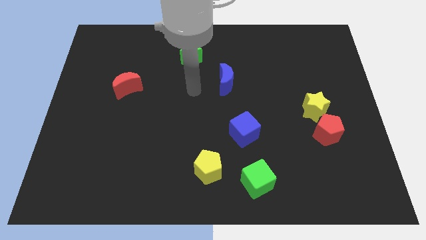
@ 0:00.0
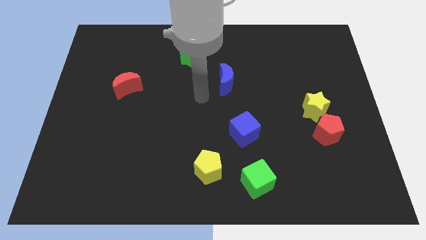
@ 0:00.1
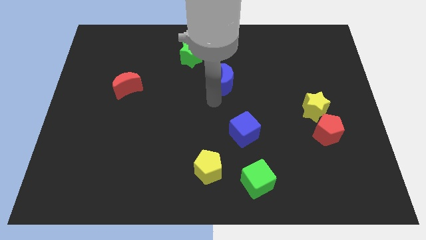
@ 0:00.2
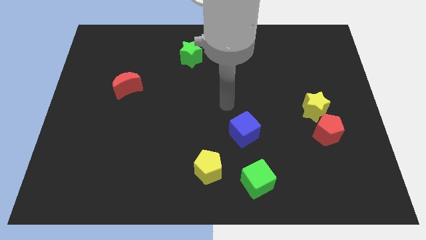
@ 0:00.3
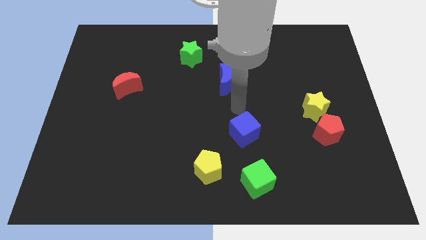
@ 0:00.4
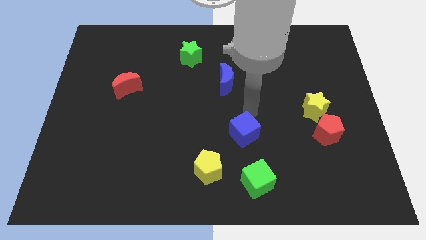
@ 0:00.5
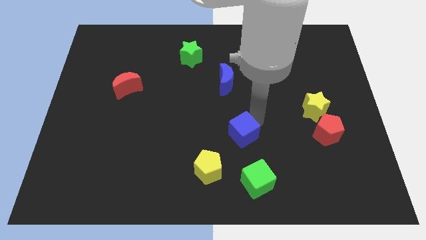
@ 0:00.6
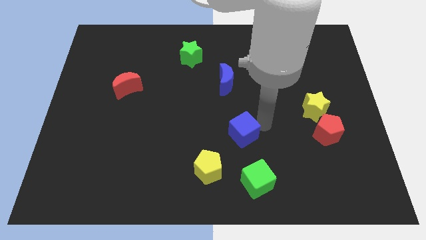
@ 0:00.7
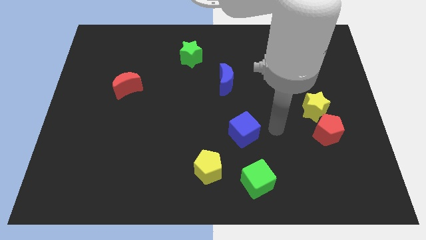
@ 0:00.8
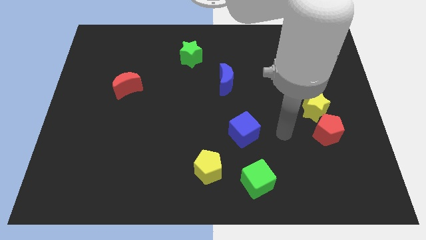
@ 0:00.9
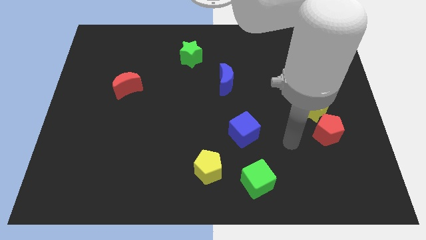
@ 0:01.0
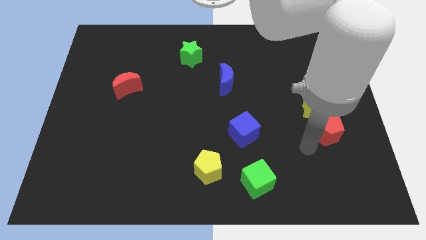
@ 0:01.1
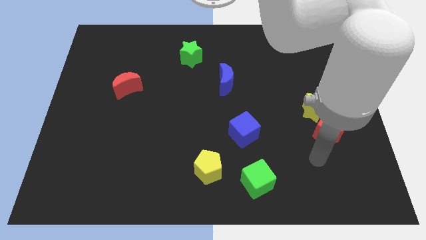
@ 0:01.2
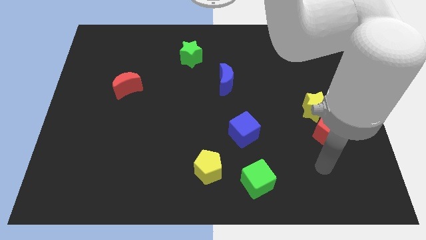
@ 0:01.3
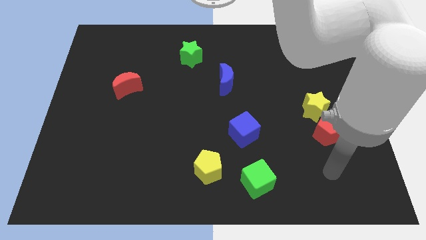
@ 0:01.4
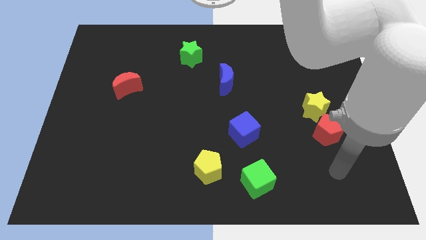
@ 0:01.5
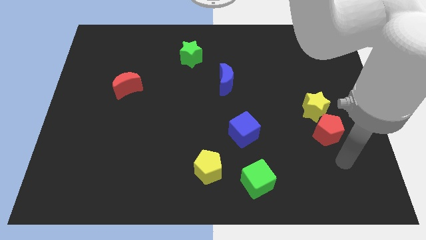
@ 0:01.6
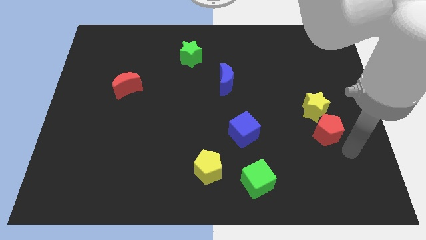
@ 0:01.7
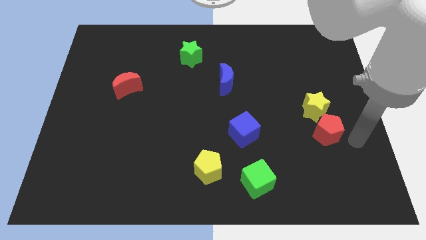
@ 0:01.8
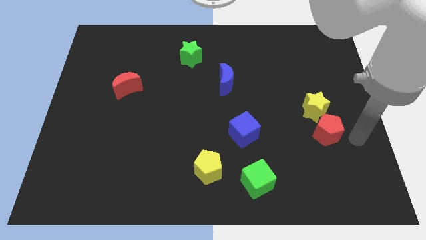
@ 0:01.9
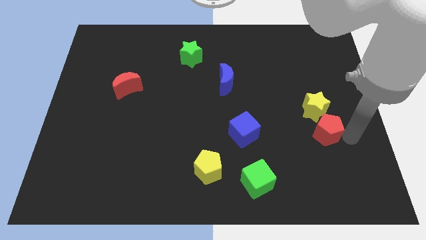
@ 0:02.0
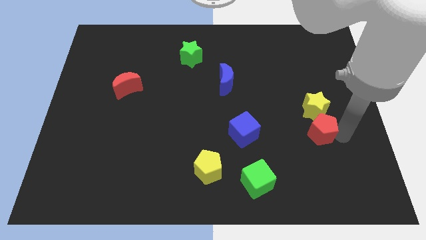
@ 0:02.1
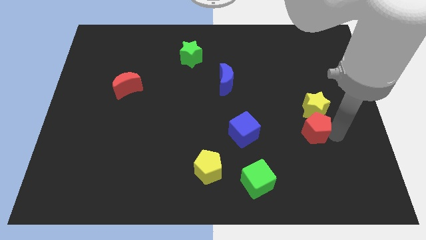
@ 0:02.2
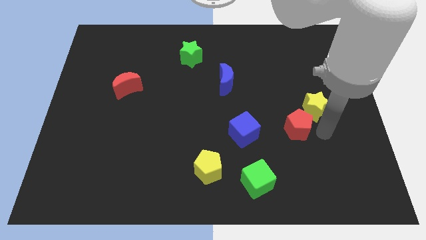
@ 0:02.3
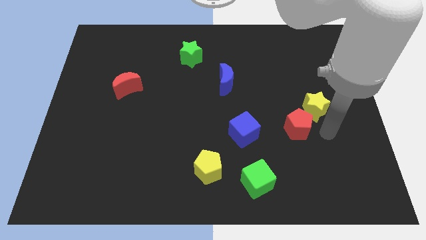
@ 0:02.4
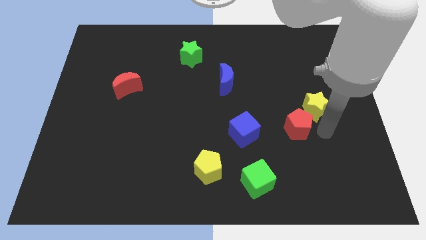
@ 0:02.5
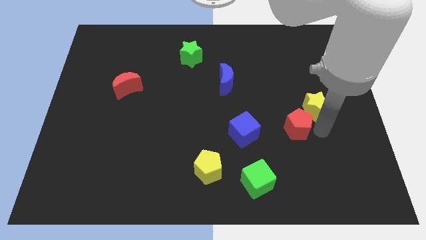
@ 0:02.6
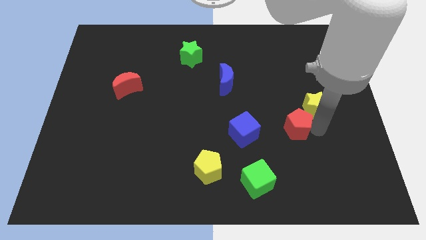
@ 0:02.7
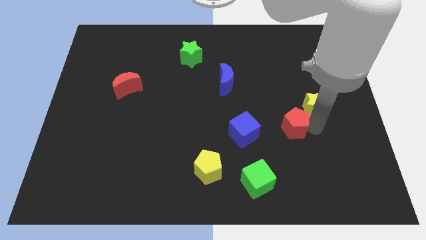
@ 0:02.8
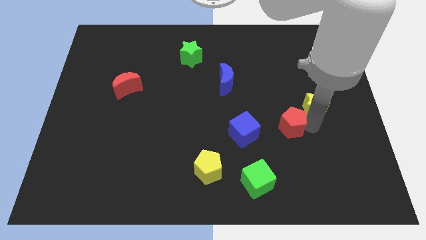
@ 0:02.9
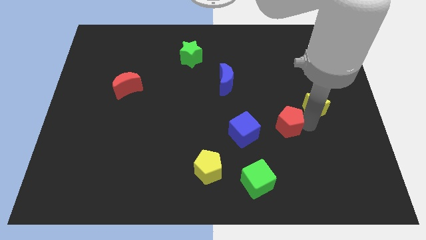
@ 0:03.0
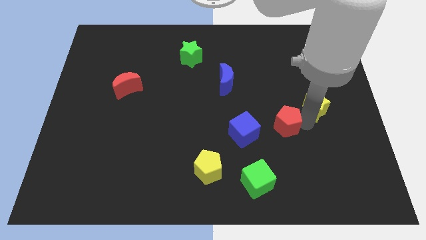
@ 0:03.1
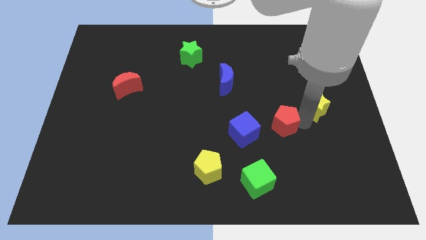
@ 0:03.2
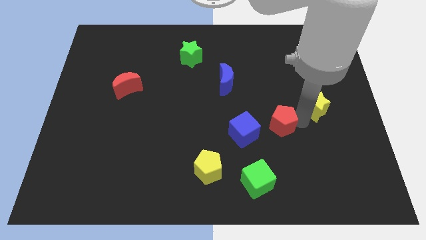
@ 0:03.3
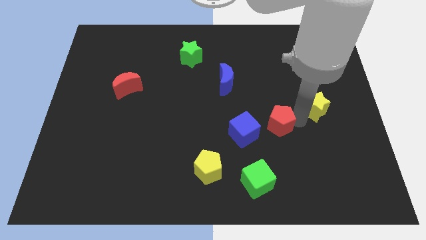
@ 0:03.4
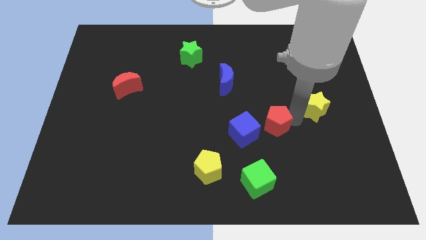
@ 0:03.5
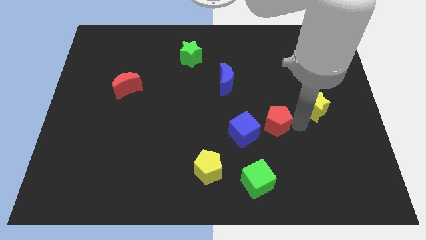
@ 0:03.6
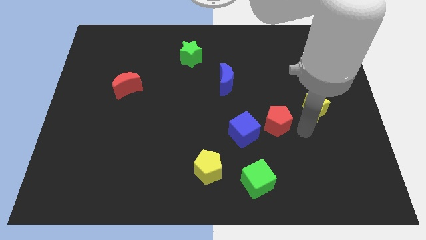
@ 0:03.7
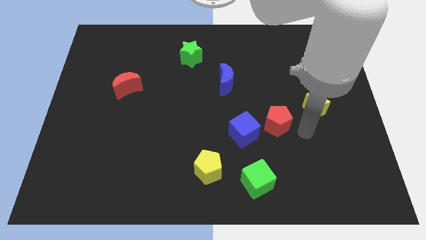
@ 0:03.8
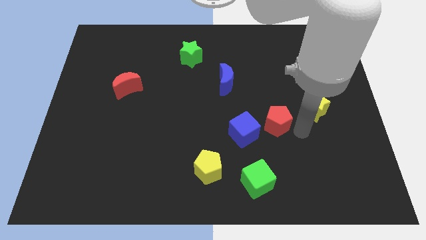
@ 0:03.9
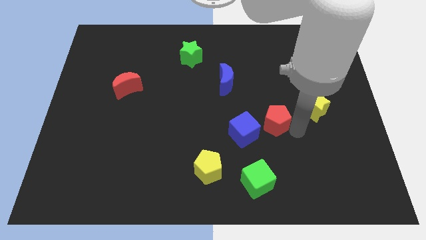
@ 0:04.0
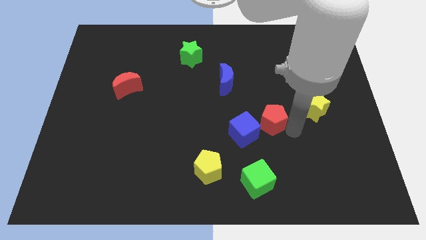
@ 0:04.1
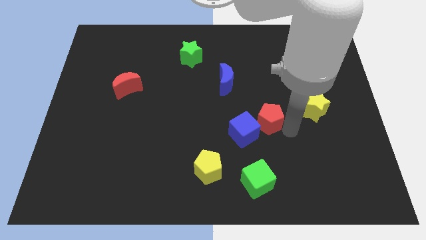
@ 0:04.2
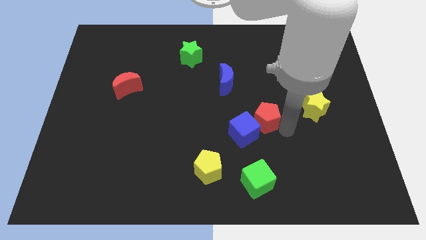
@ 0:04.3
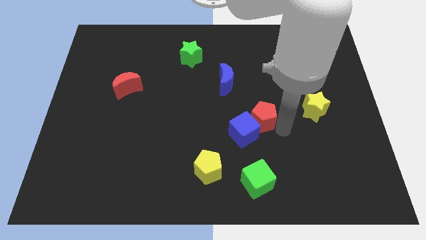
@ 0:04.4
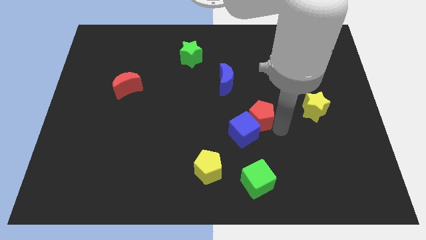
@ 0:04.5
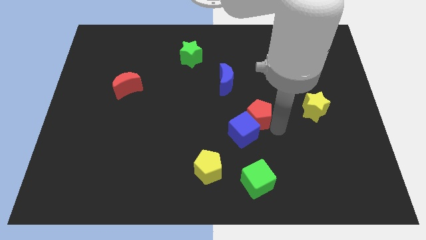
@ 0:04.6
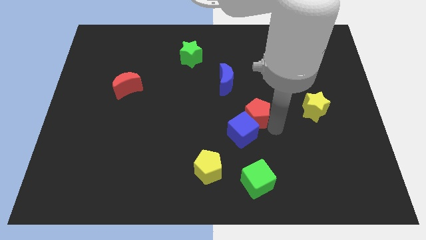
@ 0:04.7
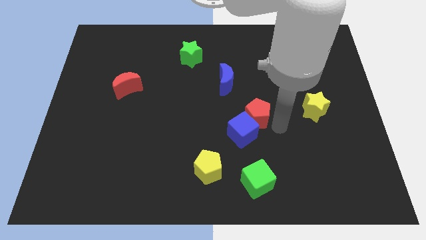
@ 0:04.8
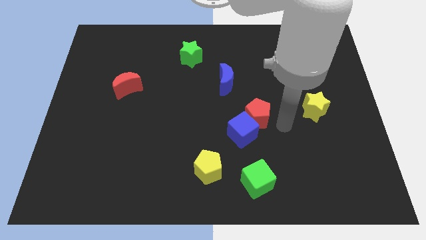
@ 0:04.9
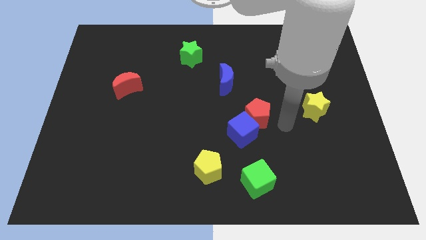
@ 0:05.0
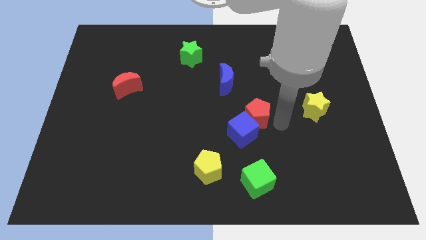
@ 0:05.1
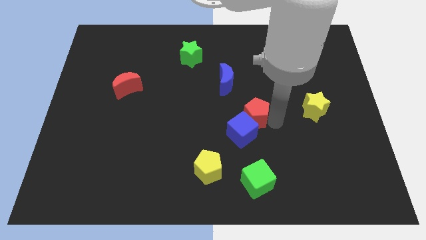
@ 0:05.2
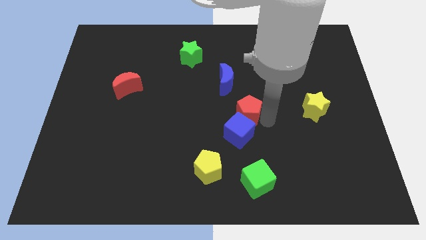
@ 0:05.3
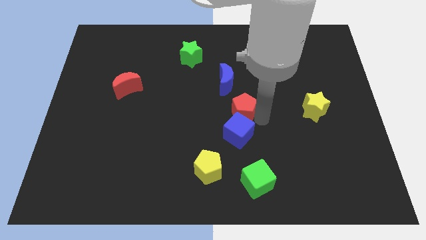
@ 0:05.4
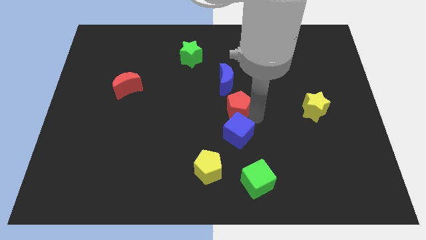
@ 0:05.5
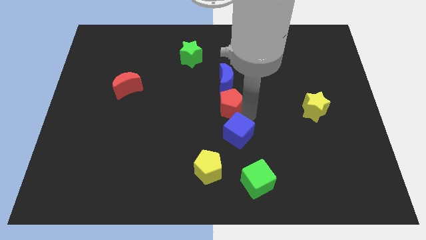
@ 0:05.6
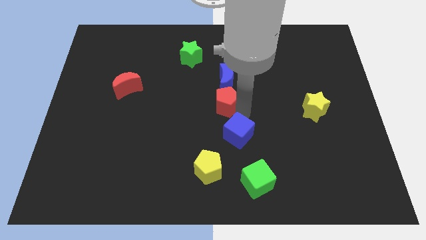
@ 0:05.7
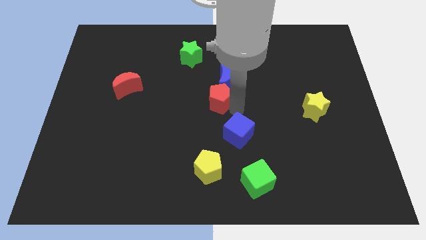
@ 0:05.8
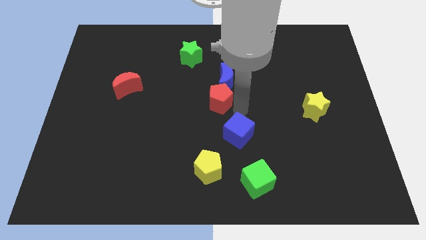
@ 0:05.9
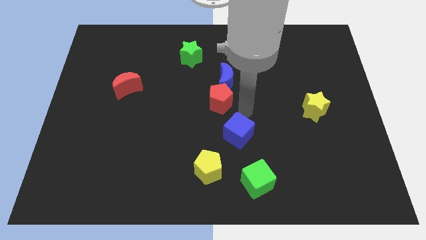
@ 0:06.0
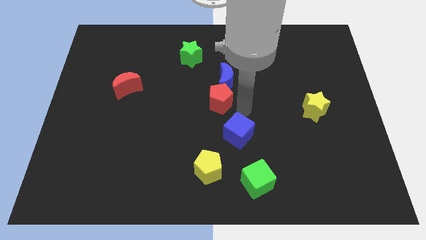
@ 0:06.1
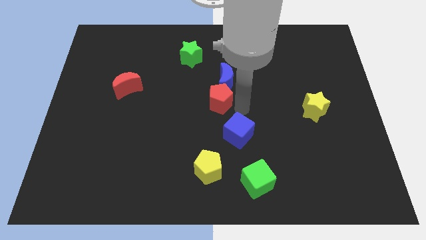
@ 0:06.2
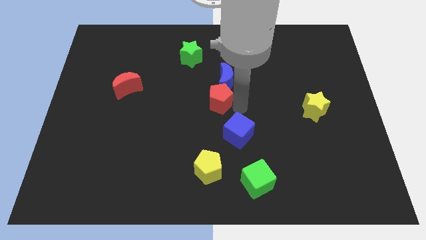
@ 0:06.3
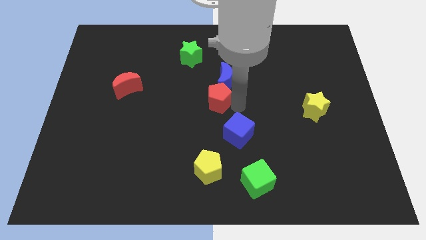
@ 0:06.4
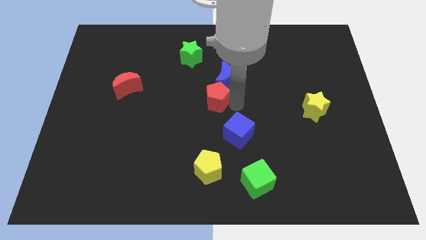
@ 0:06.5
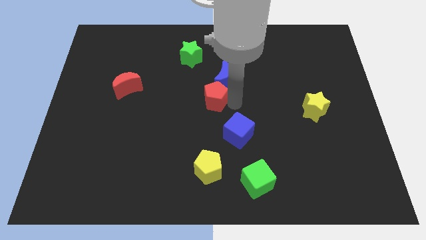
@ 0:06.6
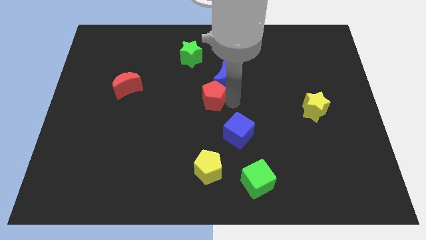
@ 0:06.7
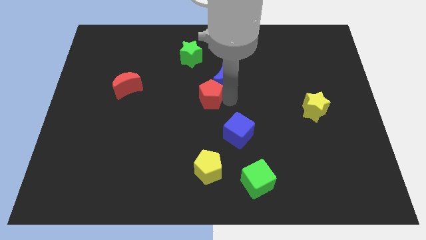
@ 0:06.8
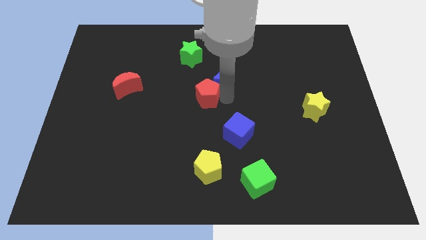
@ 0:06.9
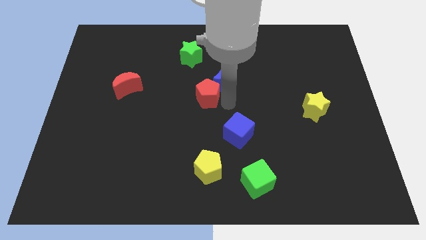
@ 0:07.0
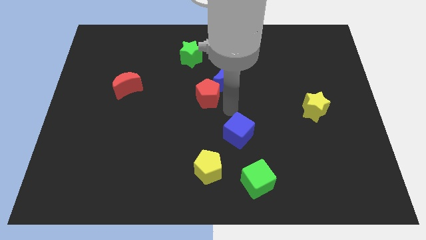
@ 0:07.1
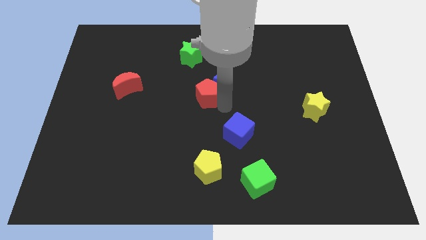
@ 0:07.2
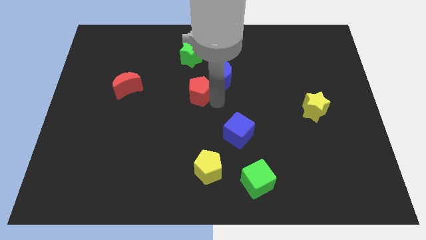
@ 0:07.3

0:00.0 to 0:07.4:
move the red pentagon to the left side of the blue moon
